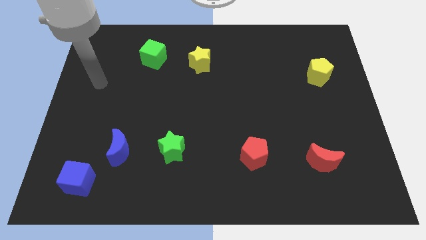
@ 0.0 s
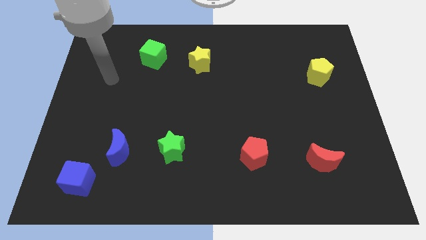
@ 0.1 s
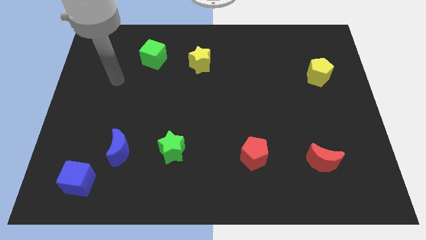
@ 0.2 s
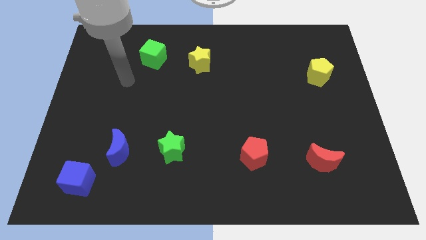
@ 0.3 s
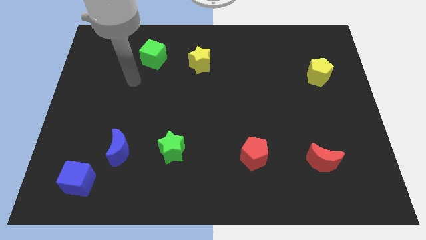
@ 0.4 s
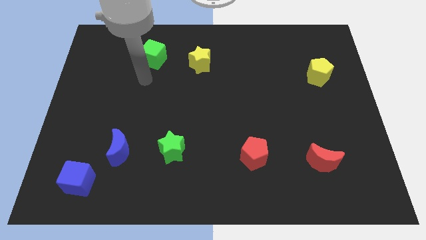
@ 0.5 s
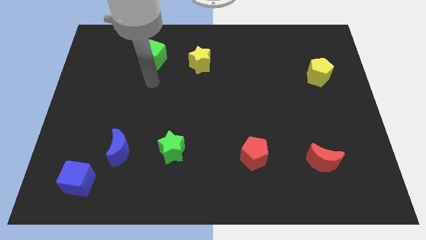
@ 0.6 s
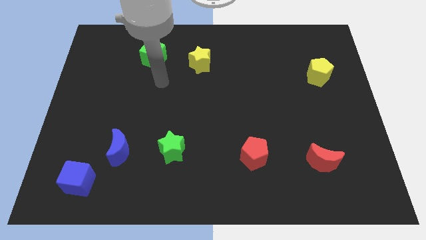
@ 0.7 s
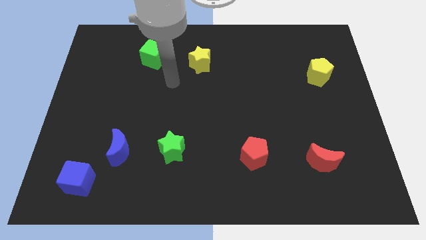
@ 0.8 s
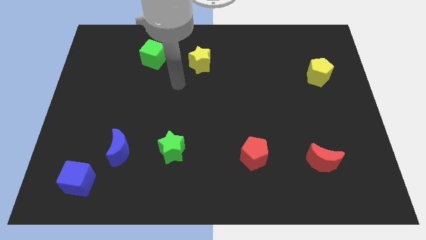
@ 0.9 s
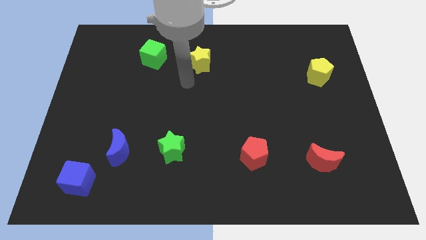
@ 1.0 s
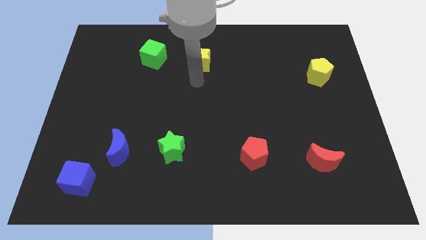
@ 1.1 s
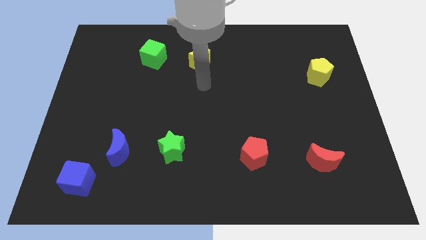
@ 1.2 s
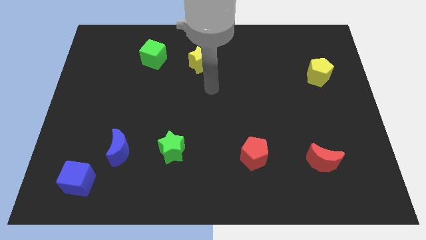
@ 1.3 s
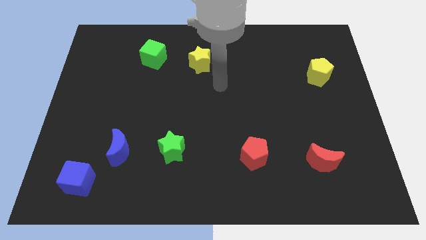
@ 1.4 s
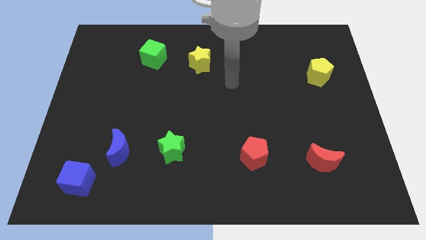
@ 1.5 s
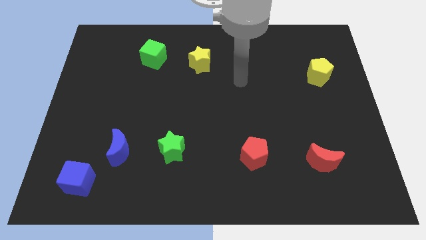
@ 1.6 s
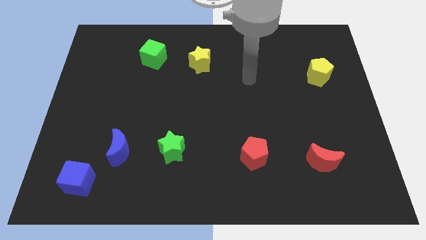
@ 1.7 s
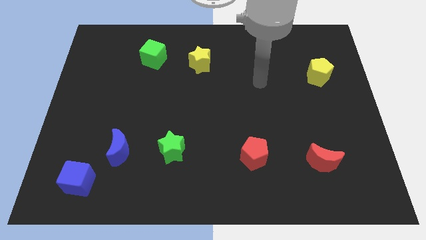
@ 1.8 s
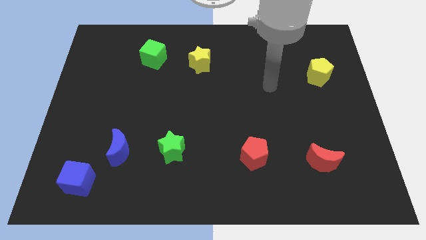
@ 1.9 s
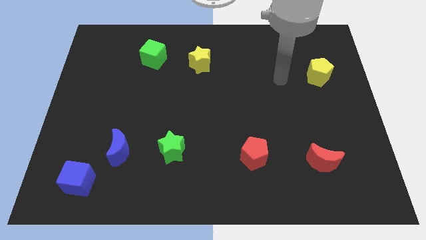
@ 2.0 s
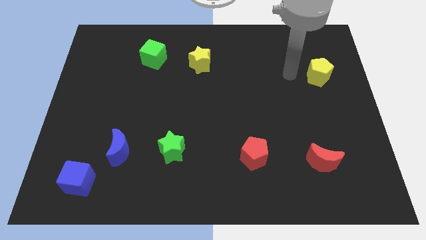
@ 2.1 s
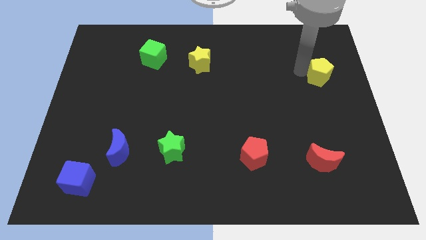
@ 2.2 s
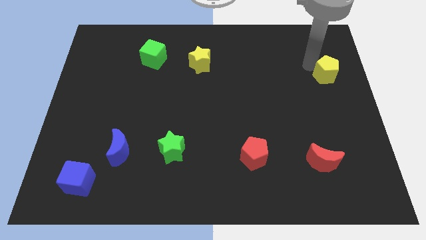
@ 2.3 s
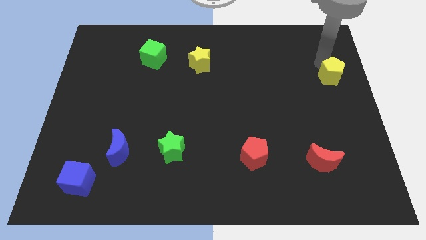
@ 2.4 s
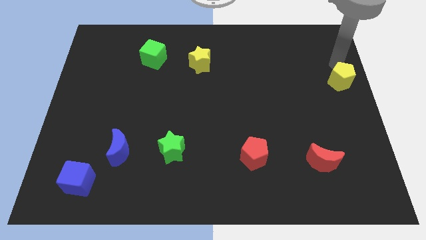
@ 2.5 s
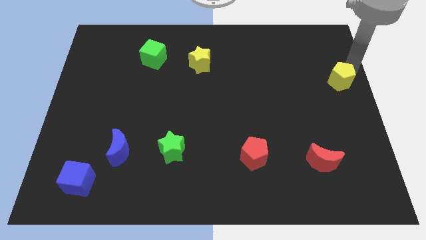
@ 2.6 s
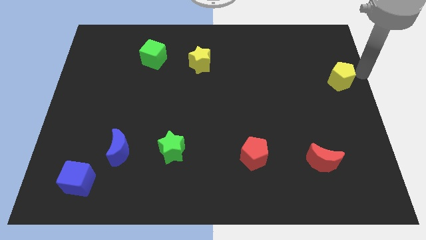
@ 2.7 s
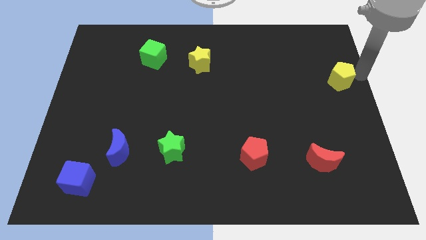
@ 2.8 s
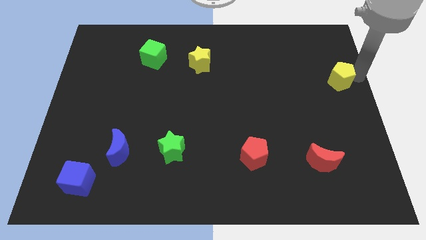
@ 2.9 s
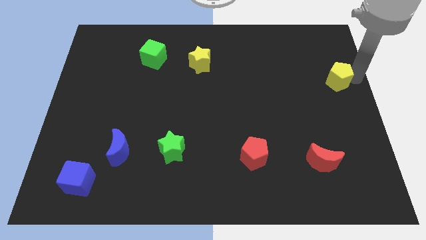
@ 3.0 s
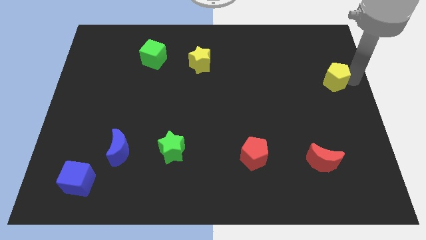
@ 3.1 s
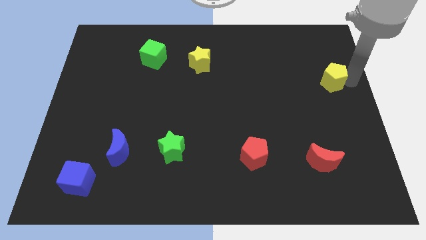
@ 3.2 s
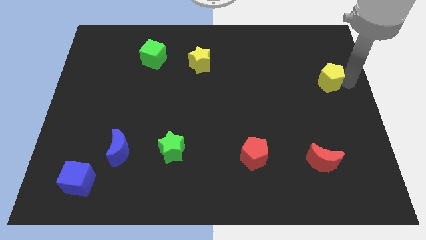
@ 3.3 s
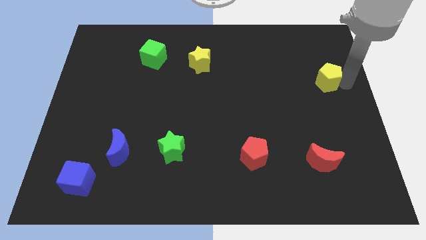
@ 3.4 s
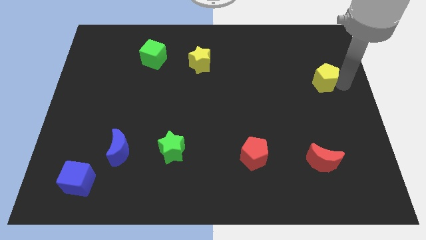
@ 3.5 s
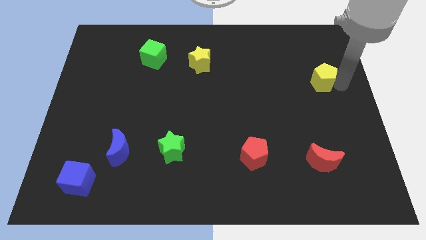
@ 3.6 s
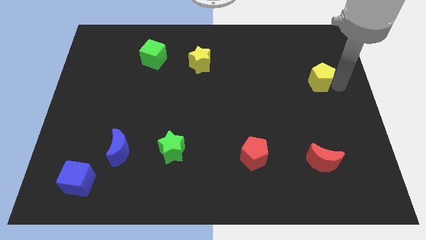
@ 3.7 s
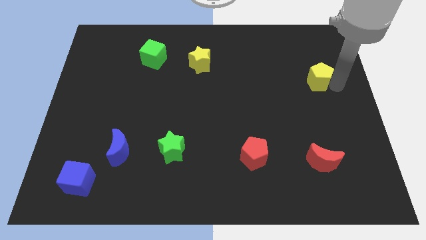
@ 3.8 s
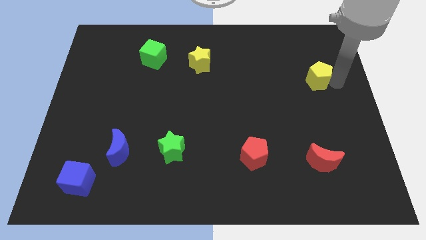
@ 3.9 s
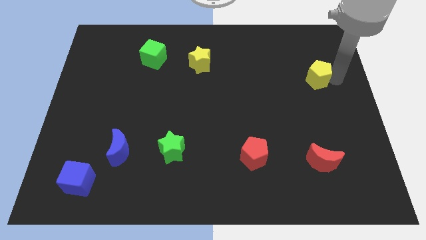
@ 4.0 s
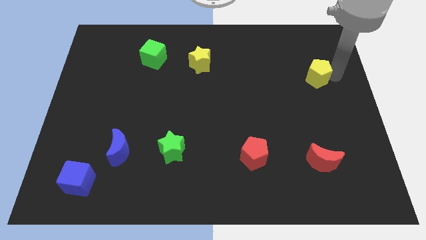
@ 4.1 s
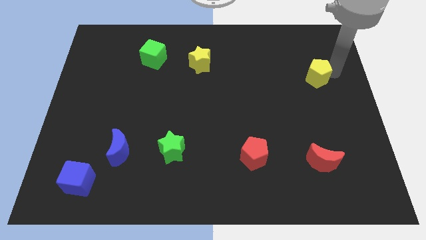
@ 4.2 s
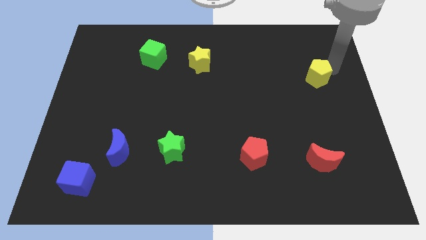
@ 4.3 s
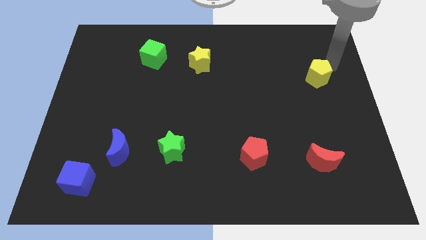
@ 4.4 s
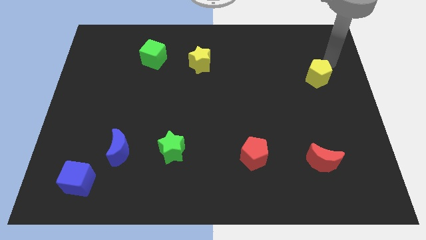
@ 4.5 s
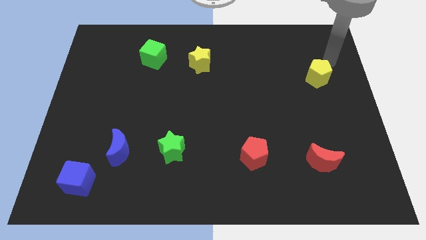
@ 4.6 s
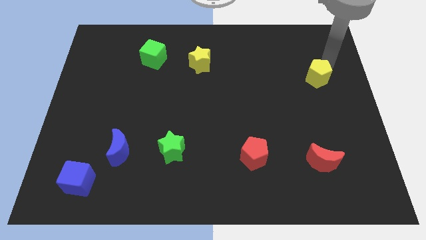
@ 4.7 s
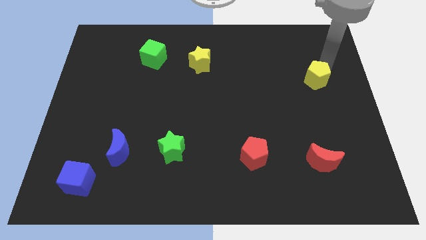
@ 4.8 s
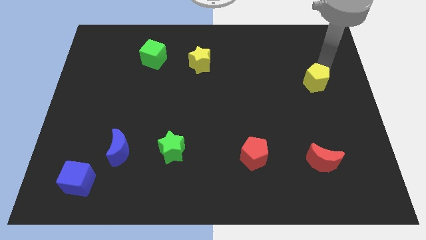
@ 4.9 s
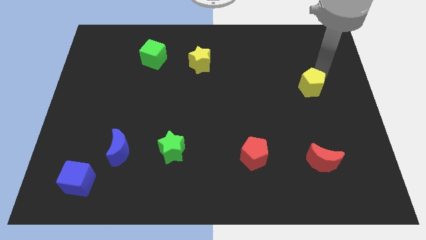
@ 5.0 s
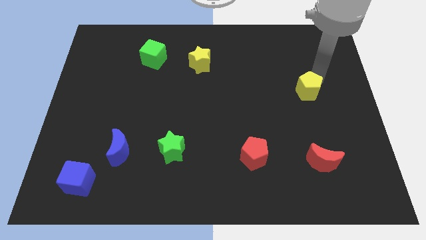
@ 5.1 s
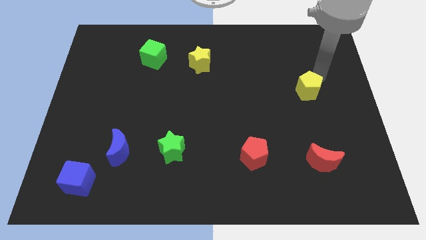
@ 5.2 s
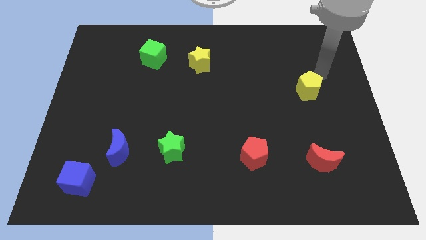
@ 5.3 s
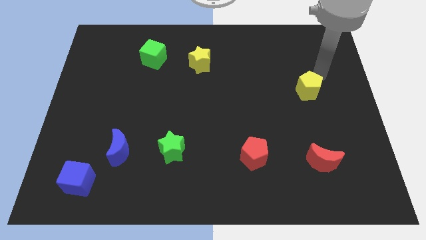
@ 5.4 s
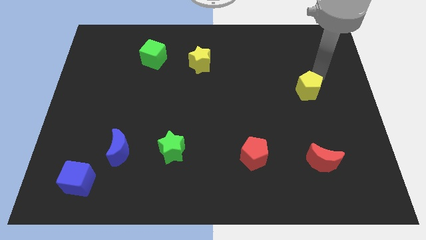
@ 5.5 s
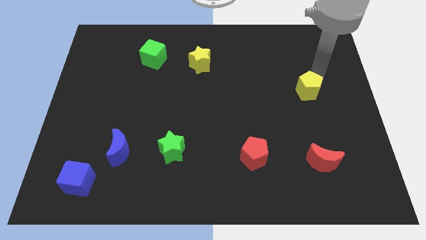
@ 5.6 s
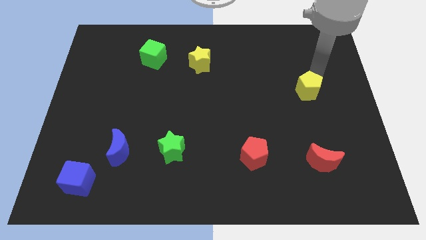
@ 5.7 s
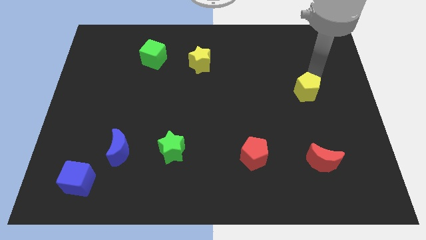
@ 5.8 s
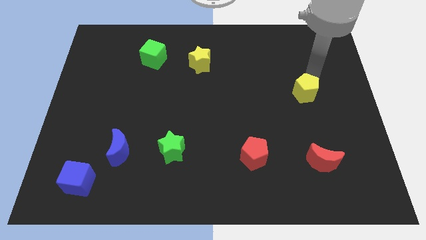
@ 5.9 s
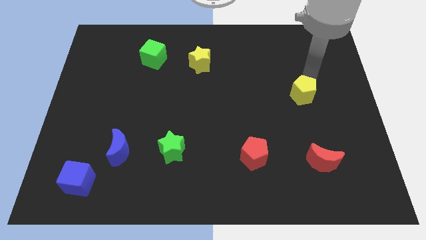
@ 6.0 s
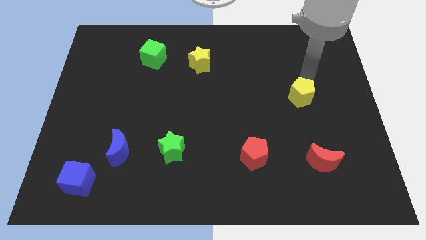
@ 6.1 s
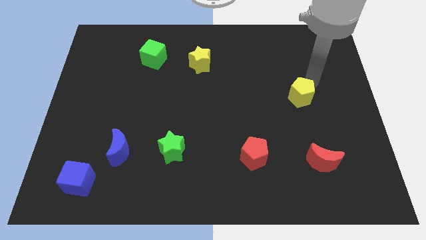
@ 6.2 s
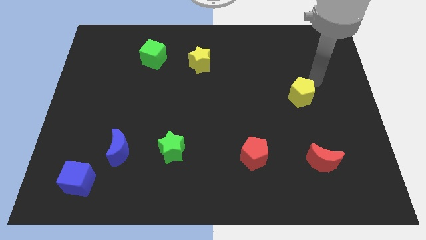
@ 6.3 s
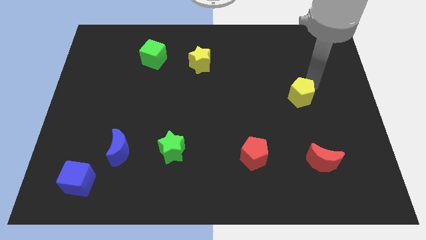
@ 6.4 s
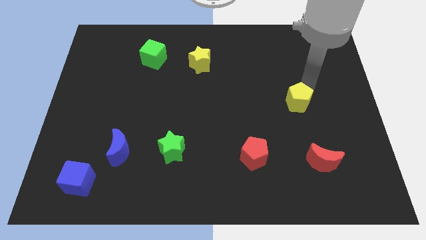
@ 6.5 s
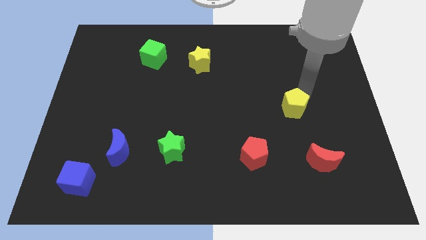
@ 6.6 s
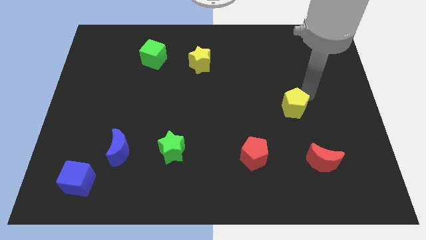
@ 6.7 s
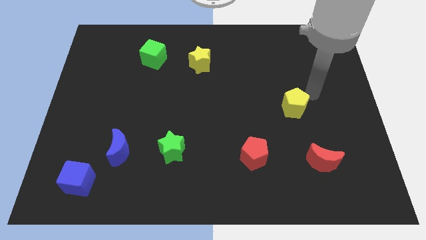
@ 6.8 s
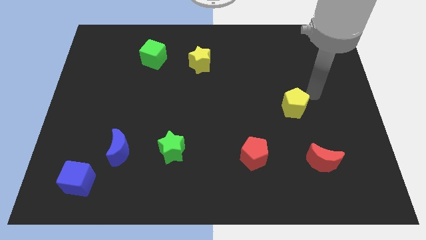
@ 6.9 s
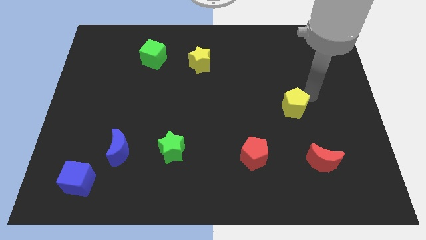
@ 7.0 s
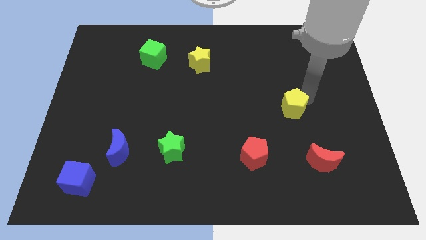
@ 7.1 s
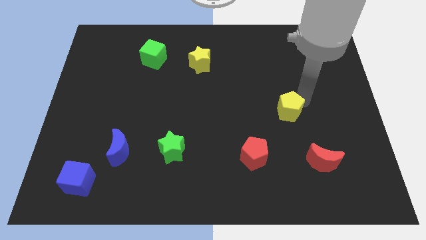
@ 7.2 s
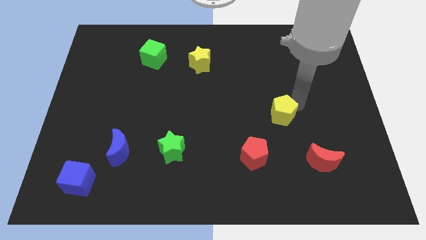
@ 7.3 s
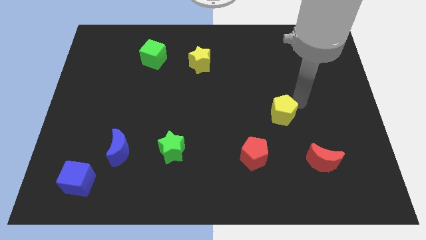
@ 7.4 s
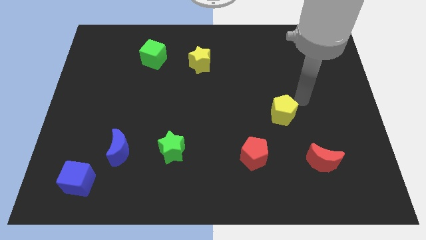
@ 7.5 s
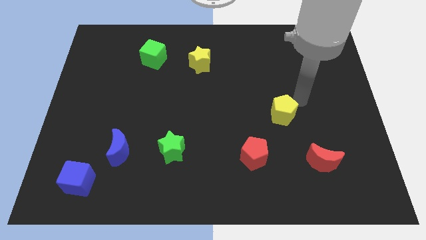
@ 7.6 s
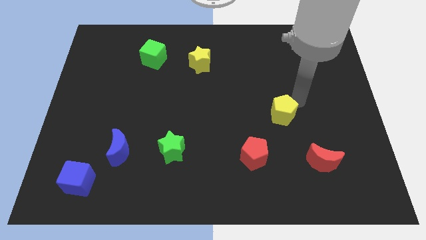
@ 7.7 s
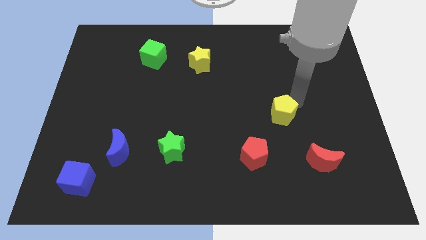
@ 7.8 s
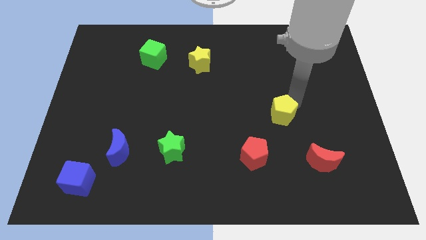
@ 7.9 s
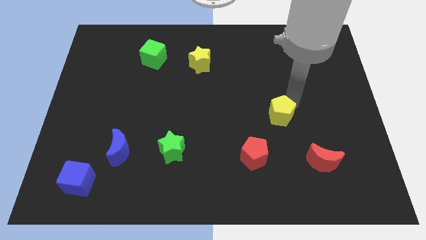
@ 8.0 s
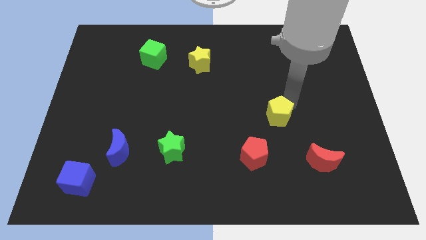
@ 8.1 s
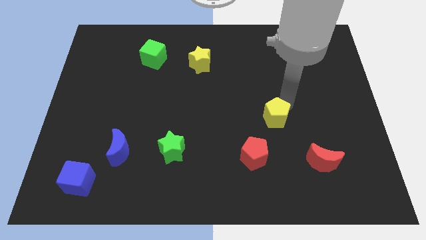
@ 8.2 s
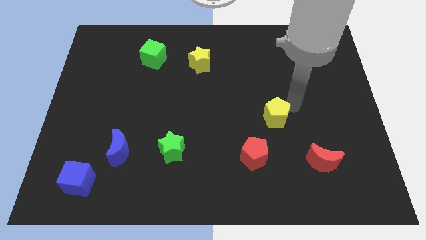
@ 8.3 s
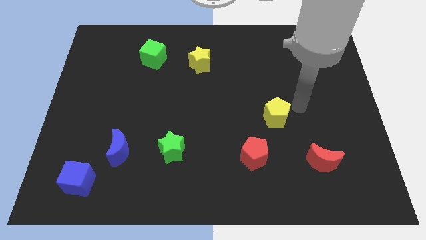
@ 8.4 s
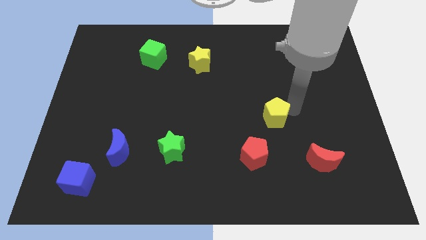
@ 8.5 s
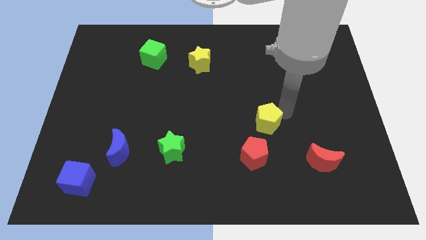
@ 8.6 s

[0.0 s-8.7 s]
push the yellow pentagon down and left diagonally
